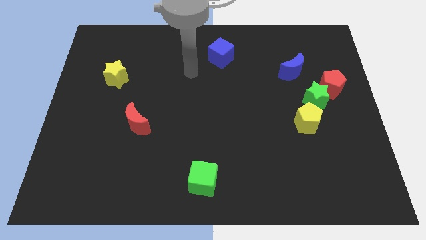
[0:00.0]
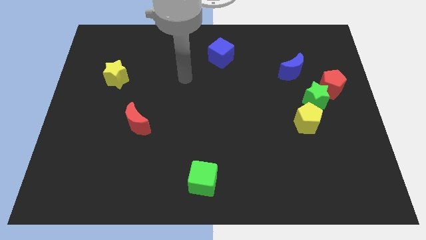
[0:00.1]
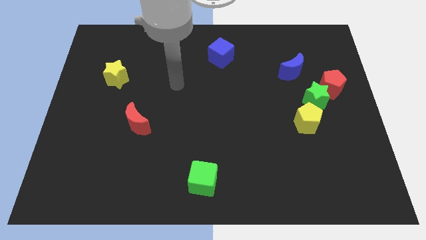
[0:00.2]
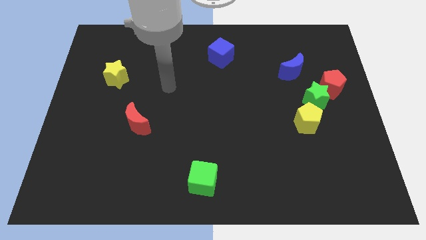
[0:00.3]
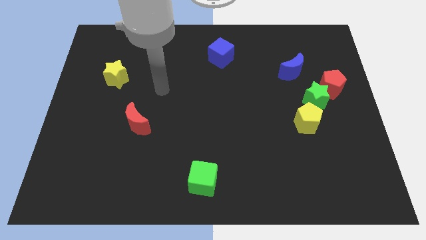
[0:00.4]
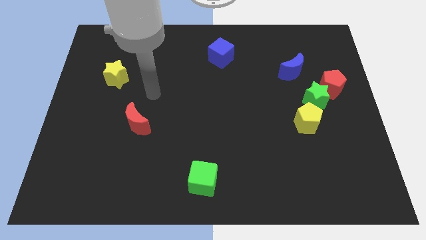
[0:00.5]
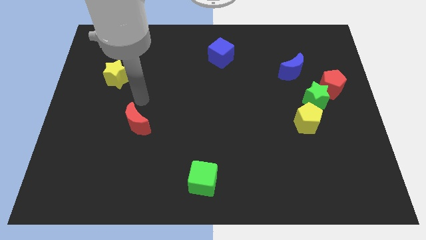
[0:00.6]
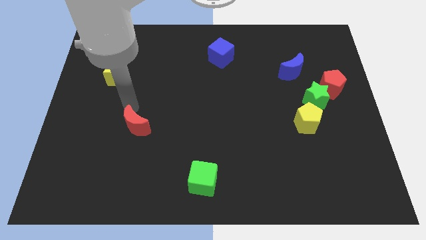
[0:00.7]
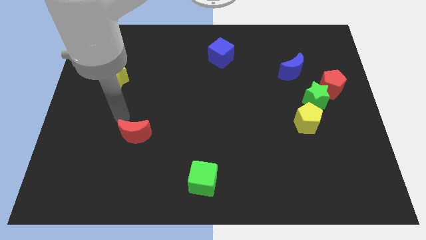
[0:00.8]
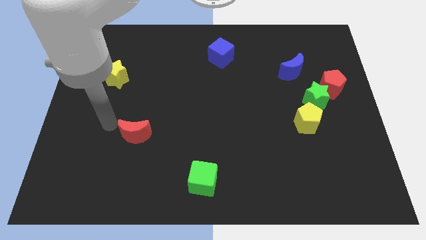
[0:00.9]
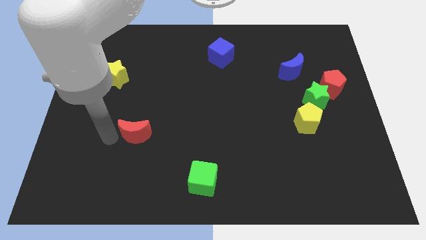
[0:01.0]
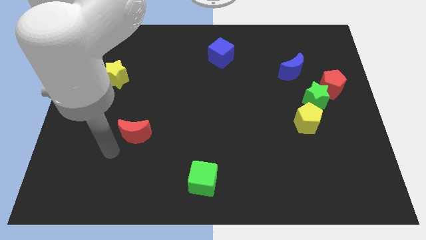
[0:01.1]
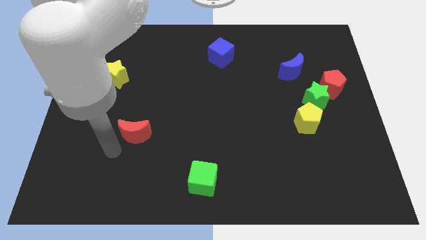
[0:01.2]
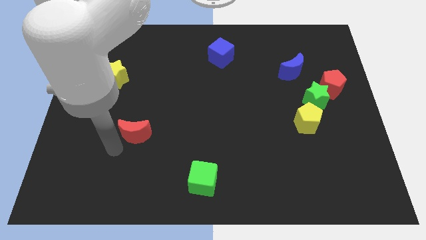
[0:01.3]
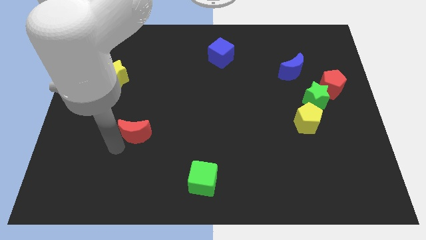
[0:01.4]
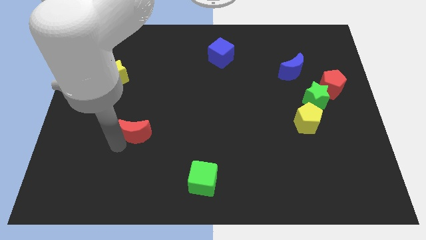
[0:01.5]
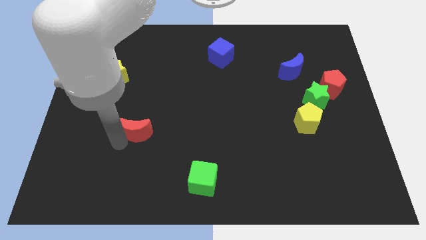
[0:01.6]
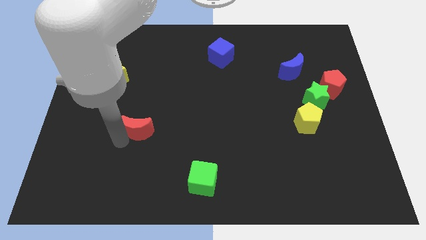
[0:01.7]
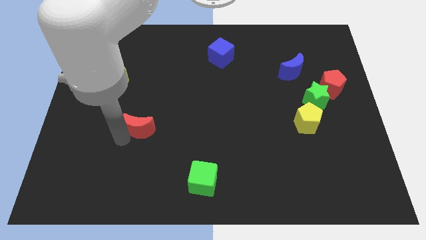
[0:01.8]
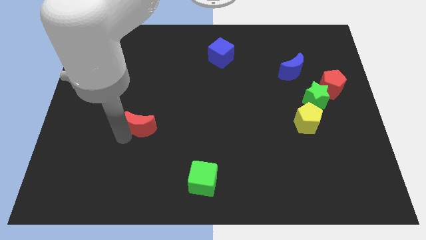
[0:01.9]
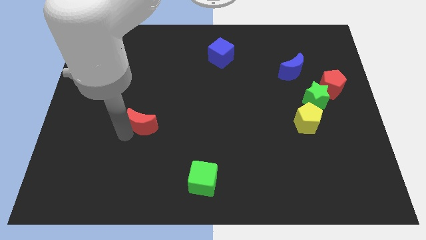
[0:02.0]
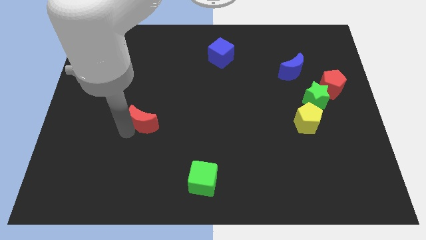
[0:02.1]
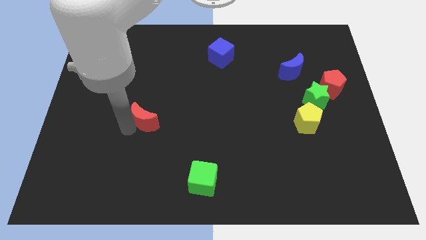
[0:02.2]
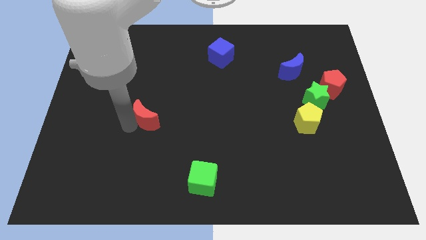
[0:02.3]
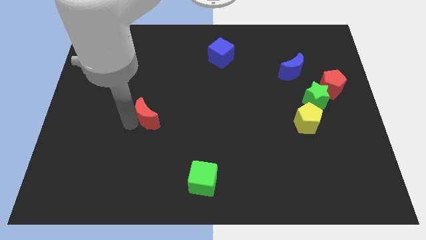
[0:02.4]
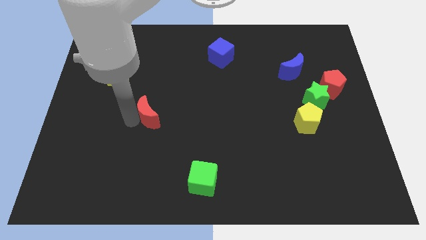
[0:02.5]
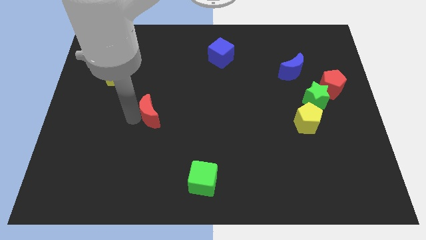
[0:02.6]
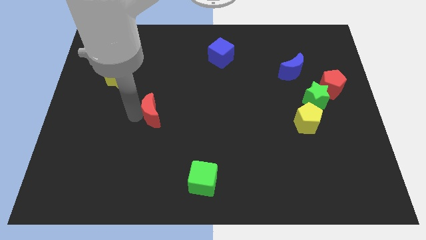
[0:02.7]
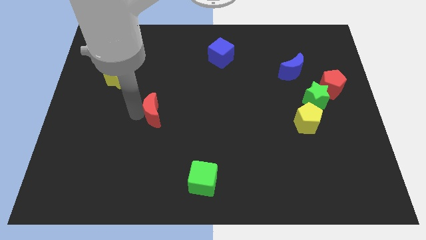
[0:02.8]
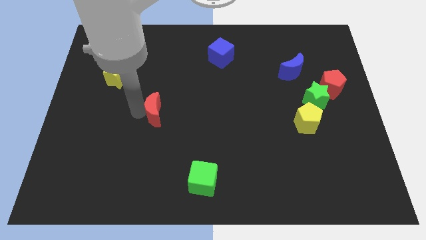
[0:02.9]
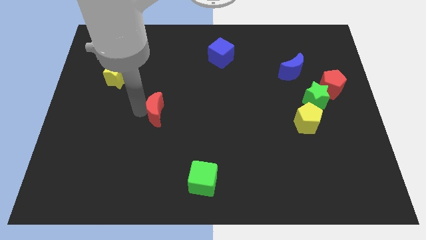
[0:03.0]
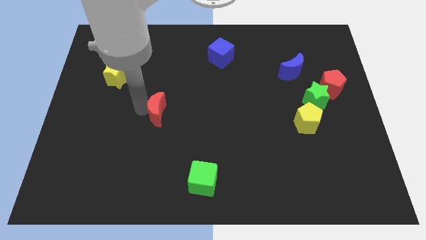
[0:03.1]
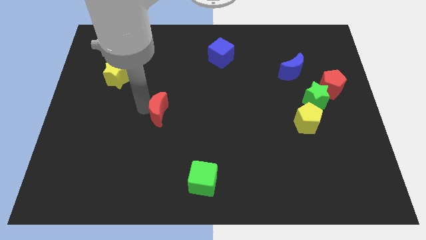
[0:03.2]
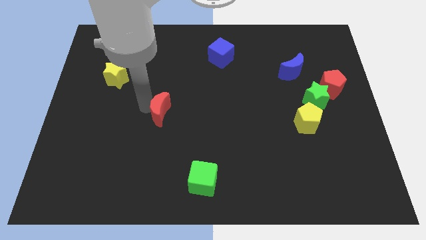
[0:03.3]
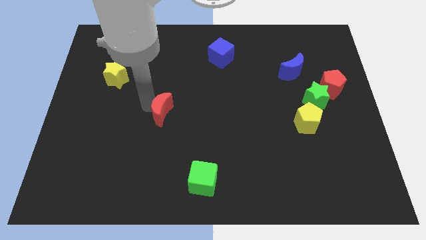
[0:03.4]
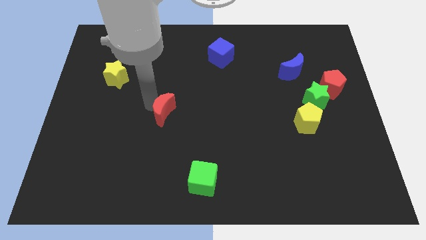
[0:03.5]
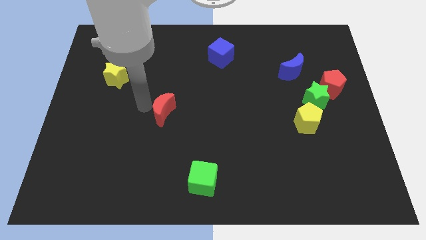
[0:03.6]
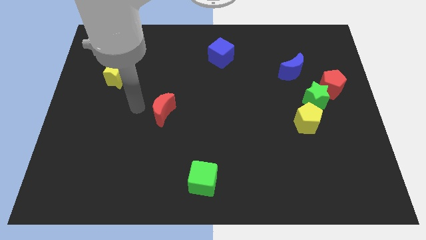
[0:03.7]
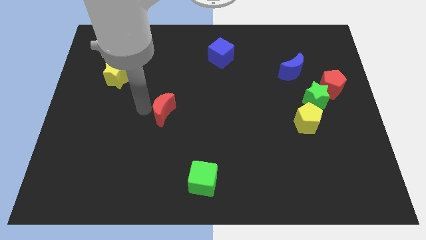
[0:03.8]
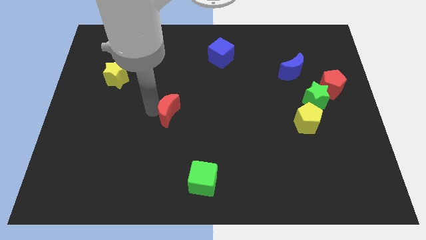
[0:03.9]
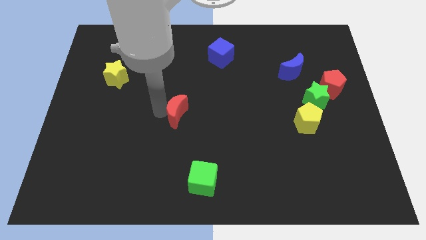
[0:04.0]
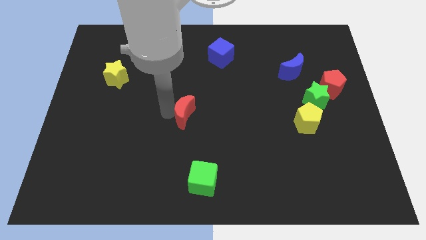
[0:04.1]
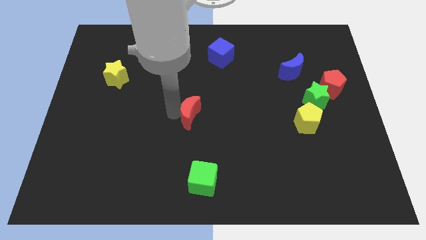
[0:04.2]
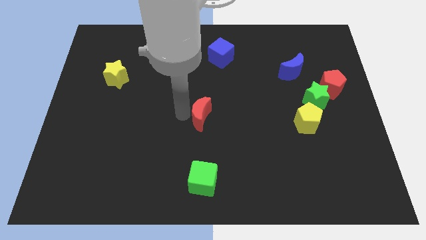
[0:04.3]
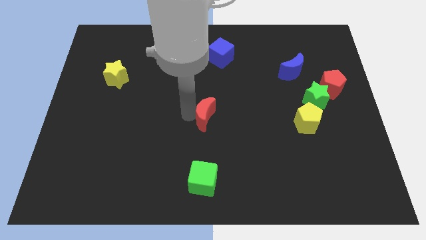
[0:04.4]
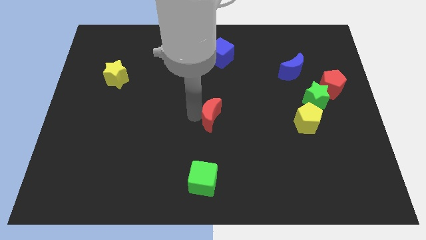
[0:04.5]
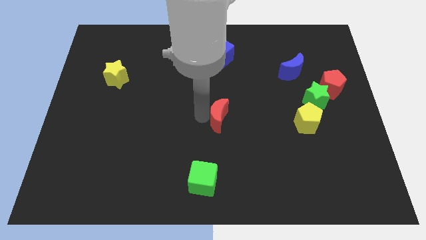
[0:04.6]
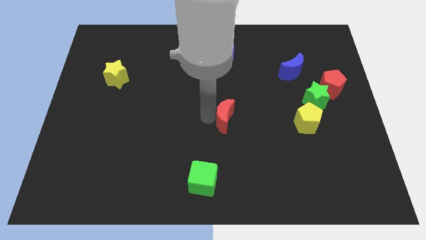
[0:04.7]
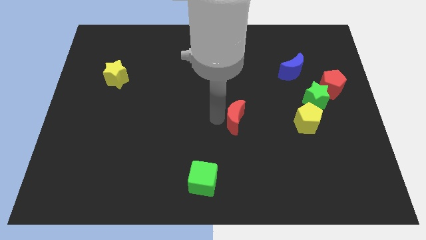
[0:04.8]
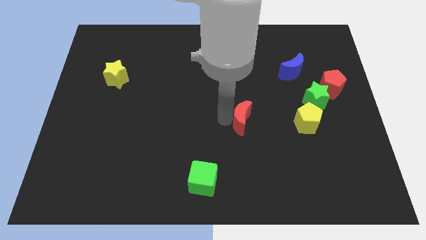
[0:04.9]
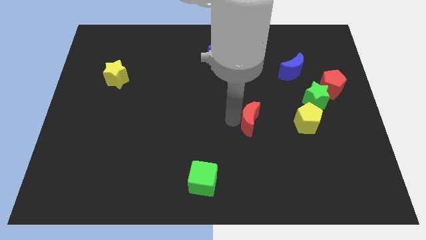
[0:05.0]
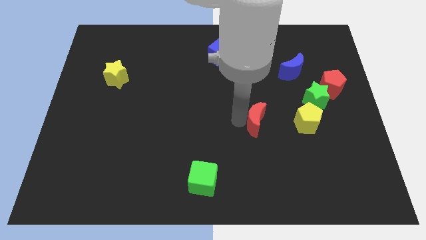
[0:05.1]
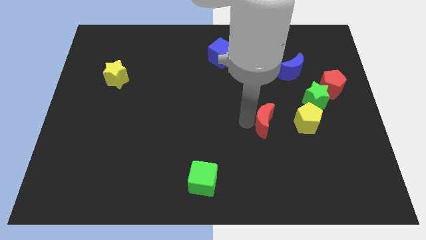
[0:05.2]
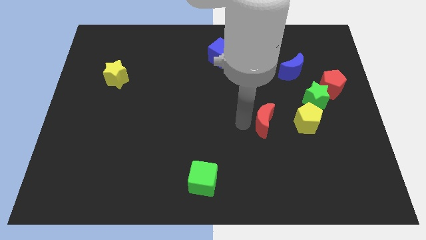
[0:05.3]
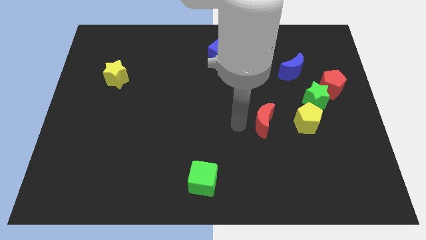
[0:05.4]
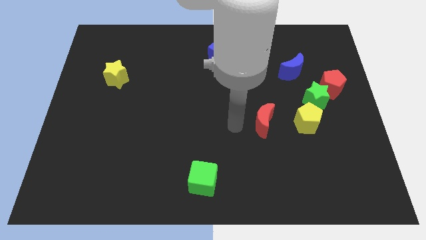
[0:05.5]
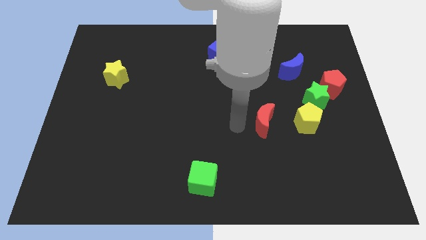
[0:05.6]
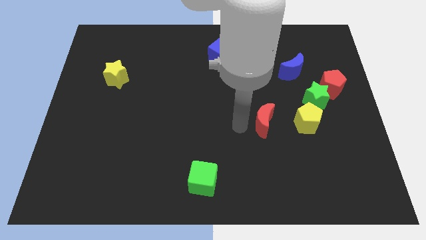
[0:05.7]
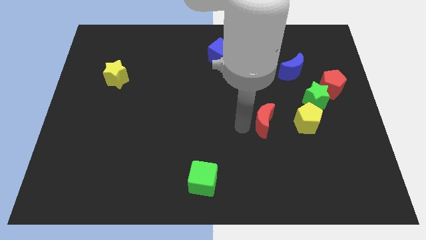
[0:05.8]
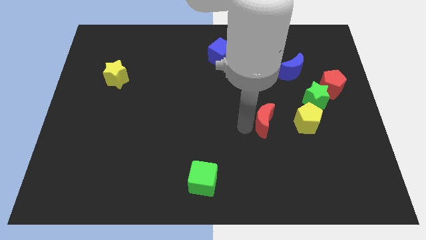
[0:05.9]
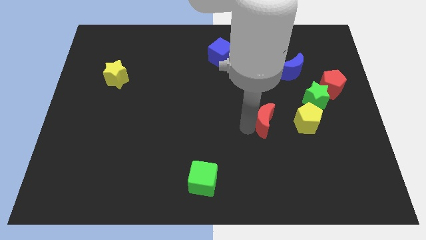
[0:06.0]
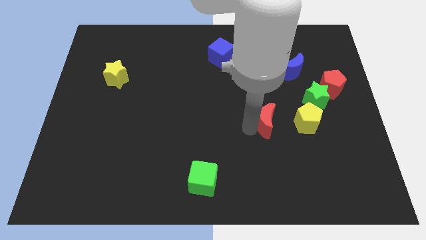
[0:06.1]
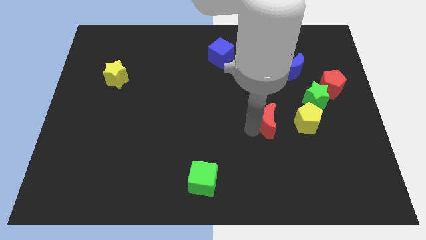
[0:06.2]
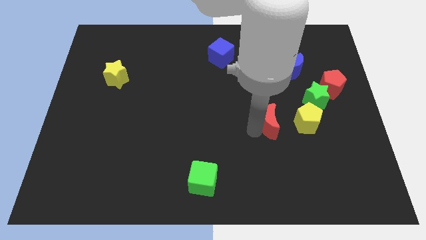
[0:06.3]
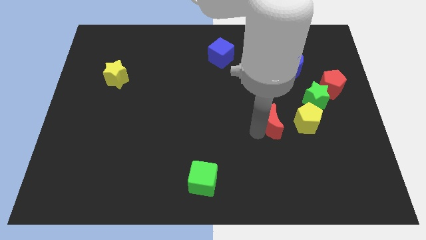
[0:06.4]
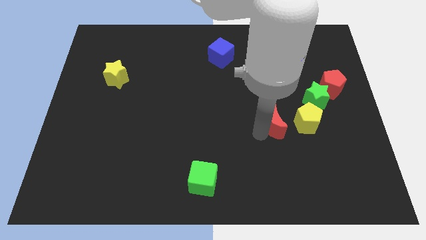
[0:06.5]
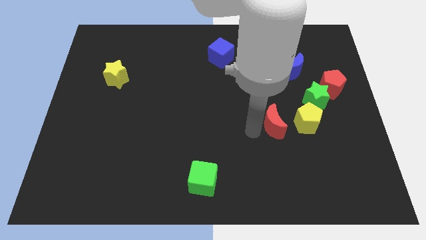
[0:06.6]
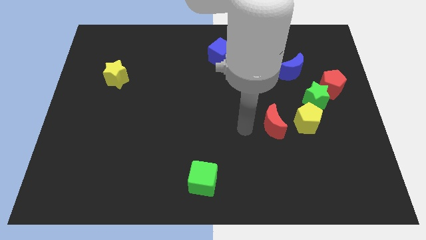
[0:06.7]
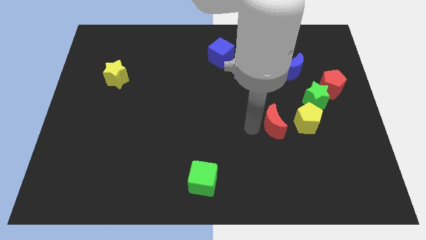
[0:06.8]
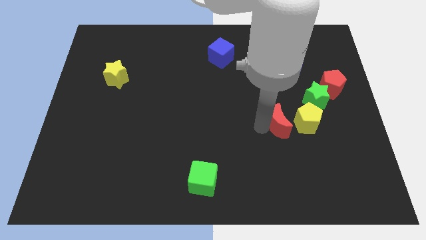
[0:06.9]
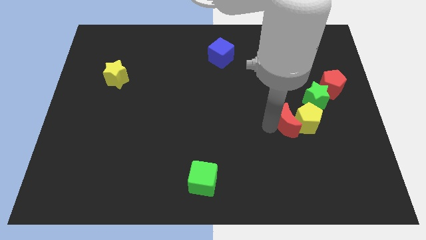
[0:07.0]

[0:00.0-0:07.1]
push the red moon next to the yellow pentagon

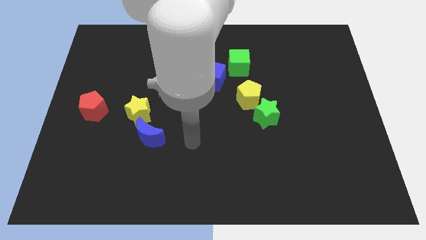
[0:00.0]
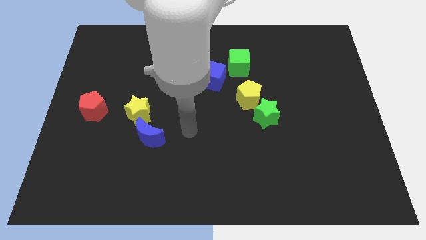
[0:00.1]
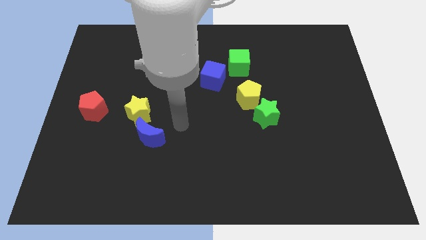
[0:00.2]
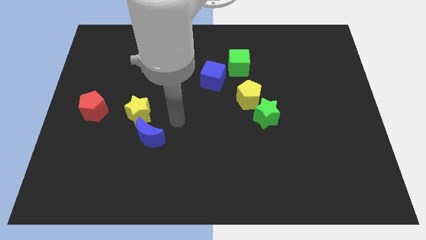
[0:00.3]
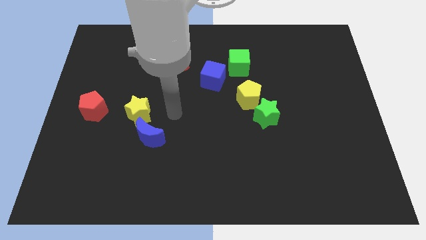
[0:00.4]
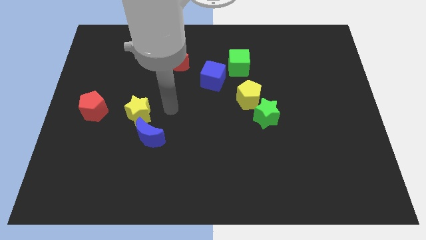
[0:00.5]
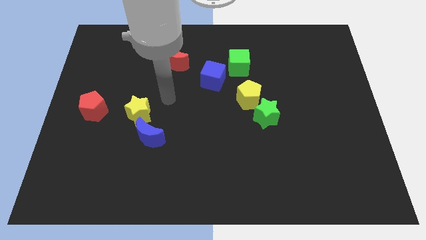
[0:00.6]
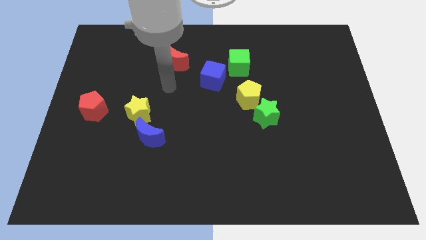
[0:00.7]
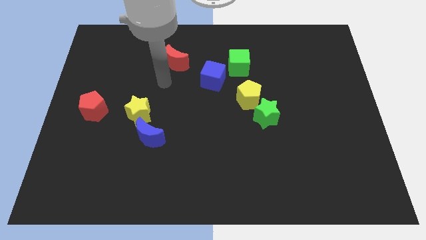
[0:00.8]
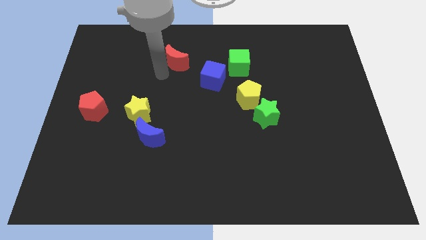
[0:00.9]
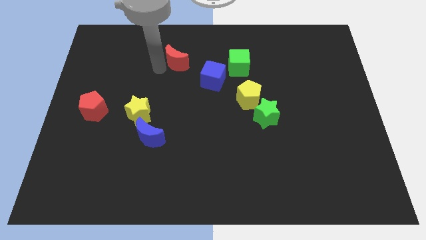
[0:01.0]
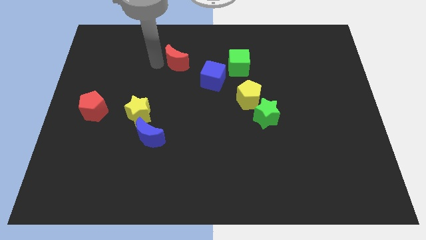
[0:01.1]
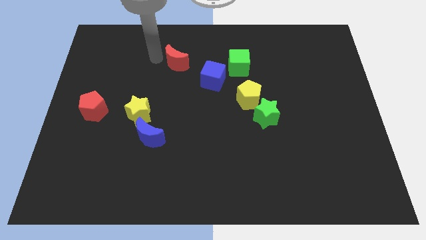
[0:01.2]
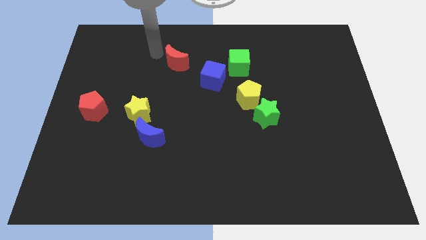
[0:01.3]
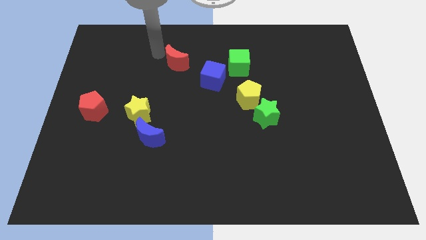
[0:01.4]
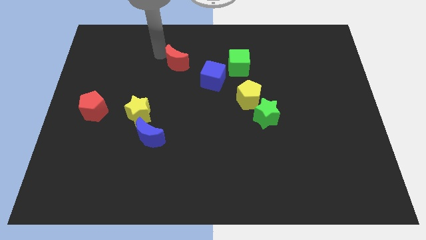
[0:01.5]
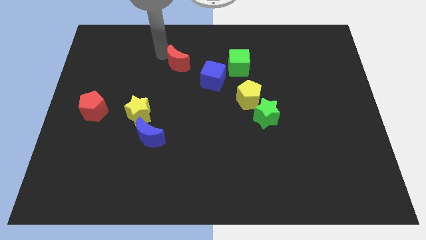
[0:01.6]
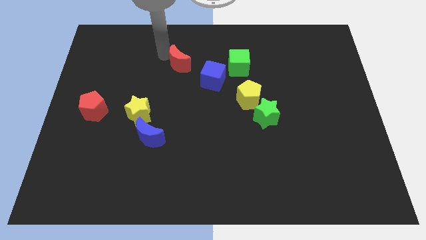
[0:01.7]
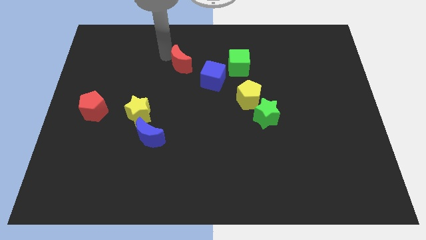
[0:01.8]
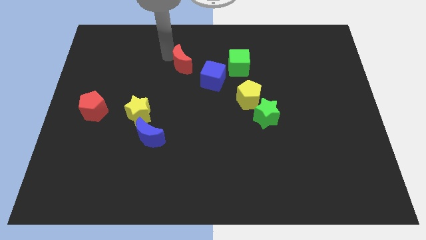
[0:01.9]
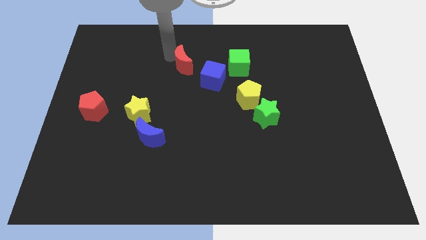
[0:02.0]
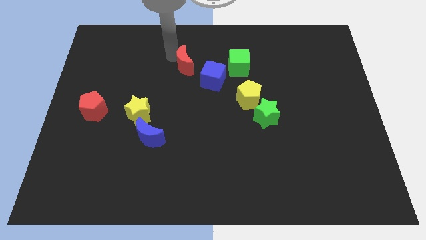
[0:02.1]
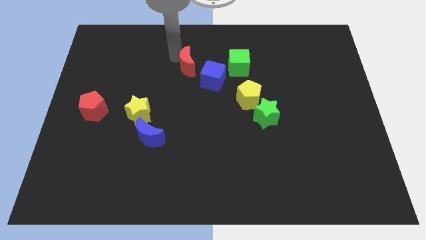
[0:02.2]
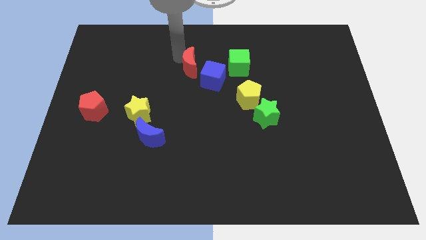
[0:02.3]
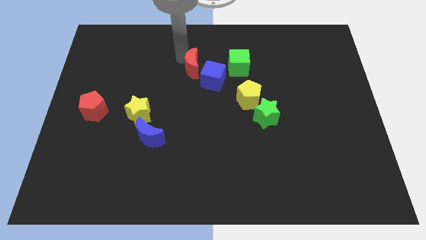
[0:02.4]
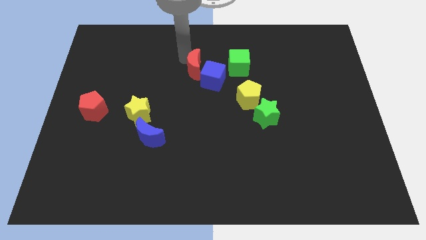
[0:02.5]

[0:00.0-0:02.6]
push the red moon to the blue cube
